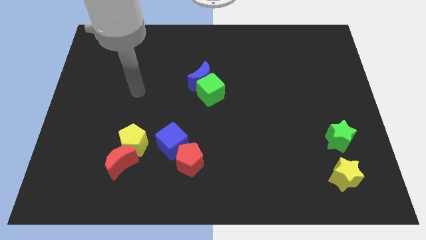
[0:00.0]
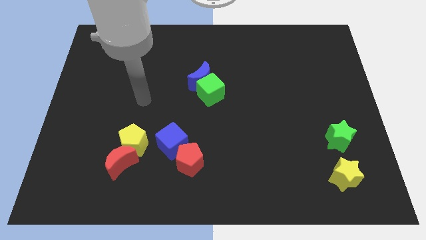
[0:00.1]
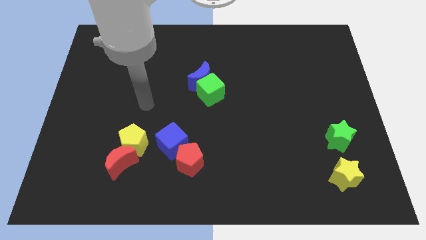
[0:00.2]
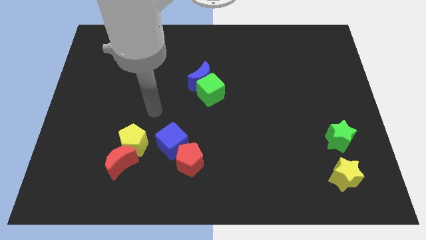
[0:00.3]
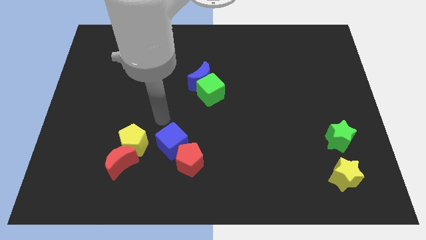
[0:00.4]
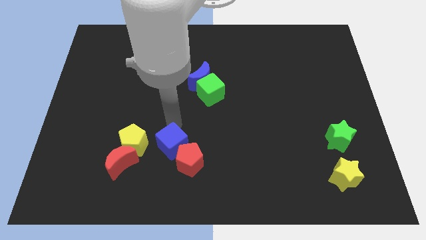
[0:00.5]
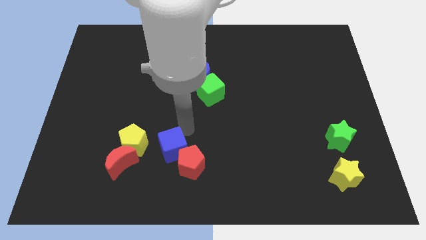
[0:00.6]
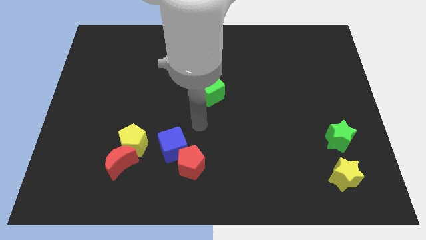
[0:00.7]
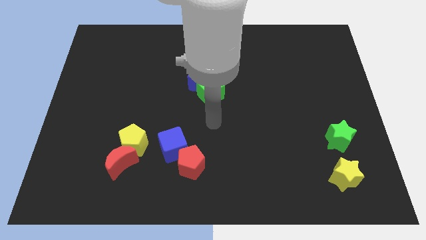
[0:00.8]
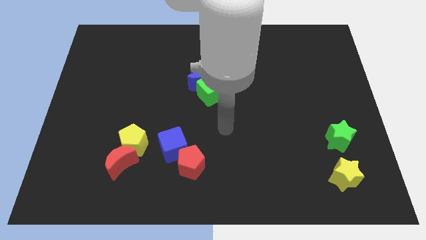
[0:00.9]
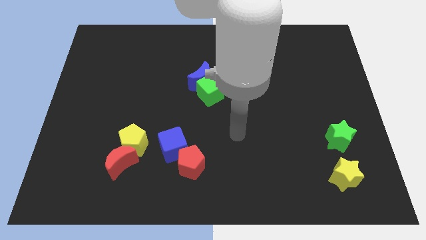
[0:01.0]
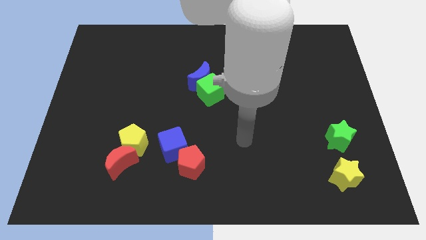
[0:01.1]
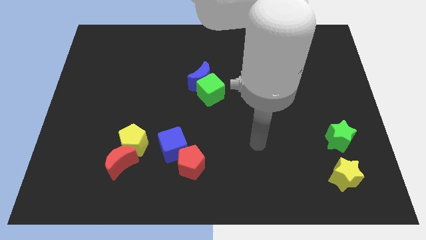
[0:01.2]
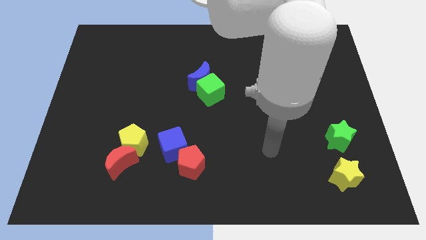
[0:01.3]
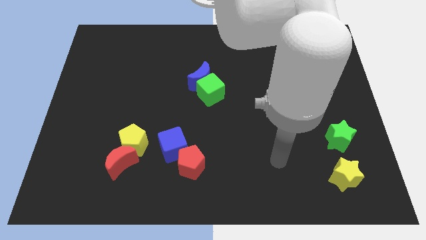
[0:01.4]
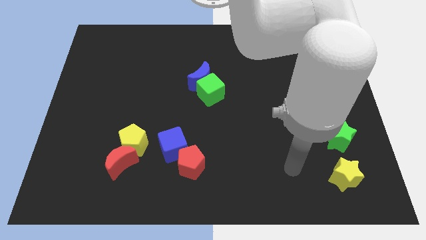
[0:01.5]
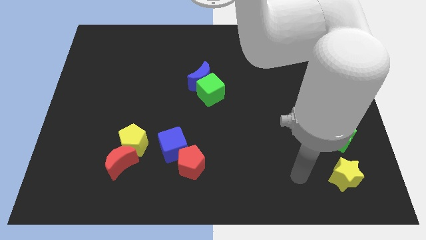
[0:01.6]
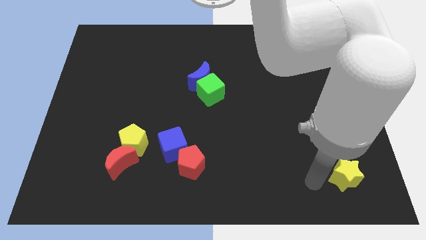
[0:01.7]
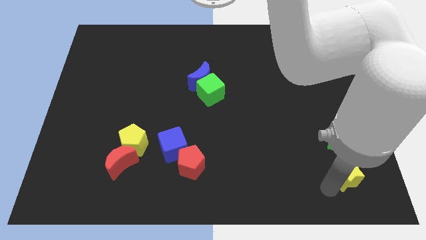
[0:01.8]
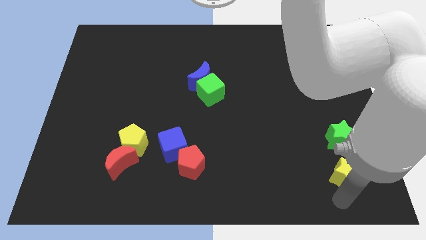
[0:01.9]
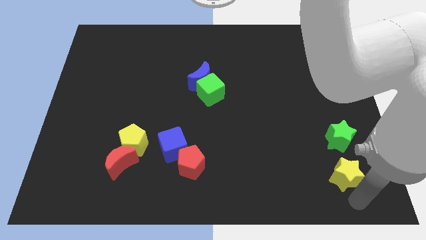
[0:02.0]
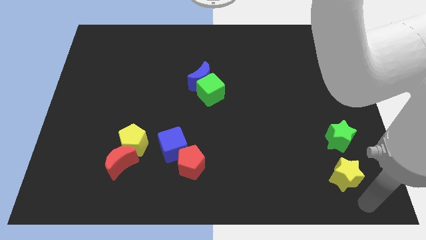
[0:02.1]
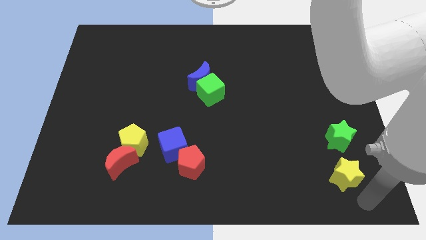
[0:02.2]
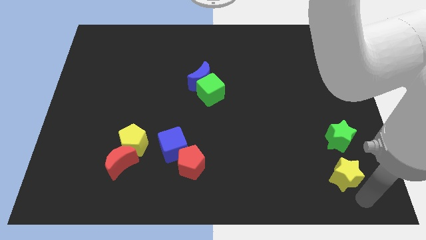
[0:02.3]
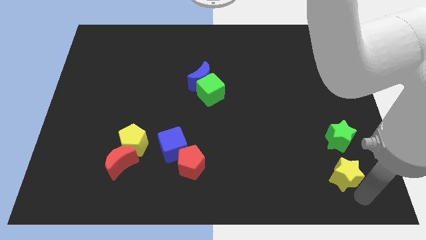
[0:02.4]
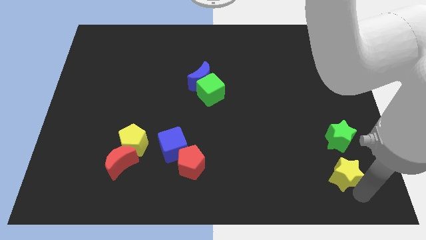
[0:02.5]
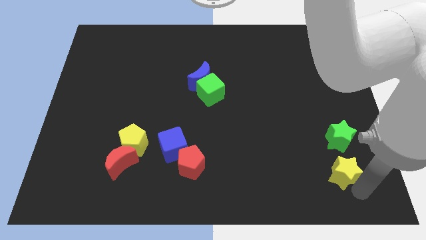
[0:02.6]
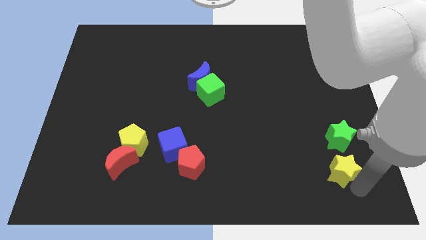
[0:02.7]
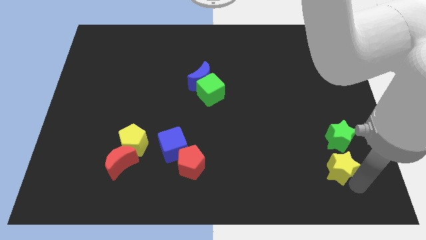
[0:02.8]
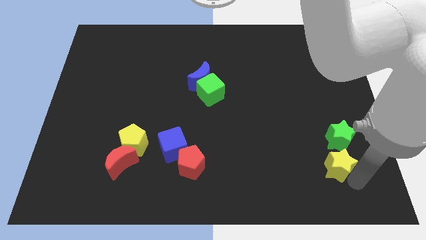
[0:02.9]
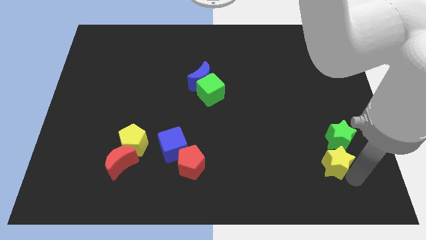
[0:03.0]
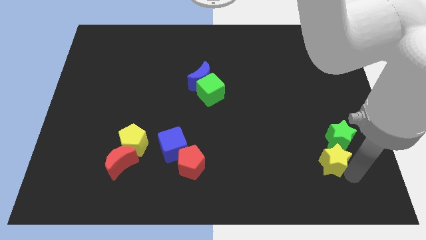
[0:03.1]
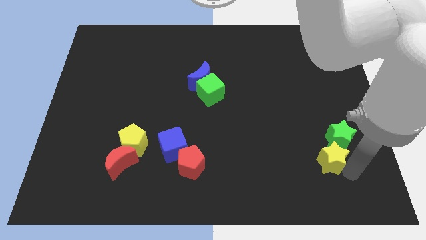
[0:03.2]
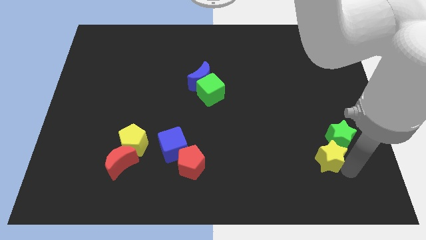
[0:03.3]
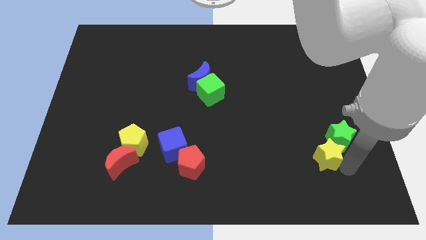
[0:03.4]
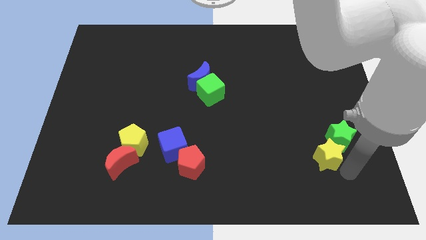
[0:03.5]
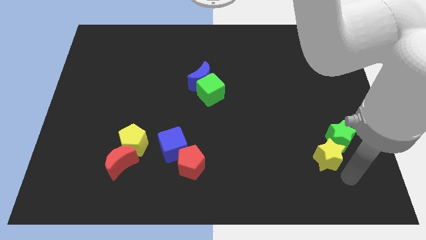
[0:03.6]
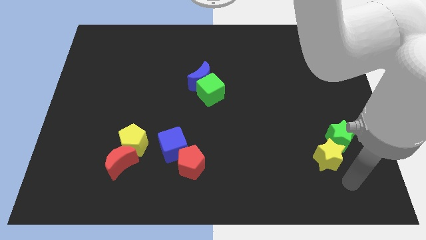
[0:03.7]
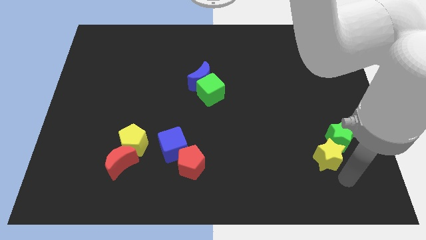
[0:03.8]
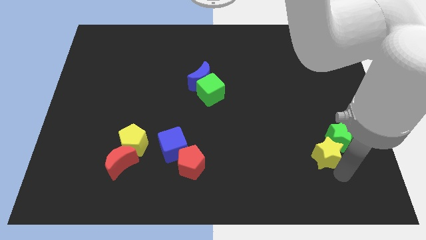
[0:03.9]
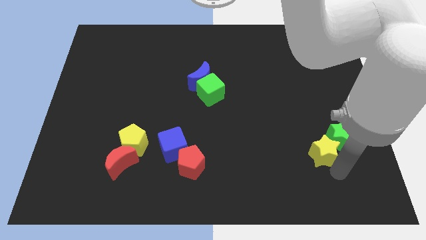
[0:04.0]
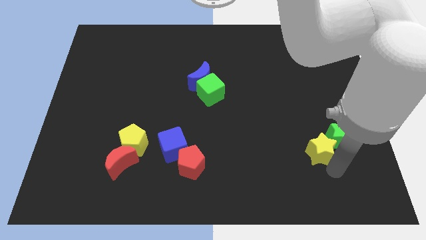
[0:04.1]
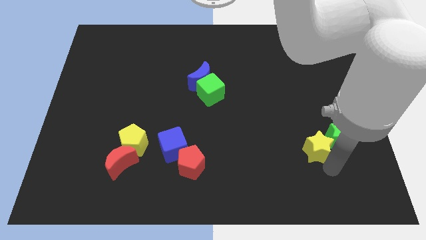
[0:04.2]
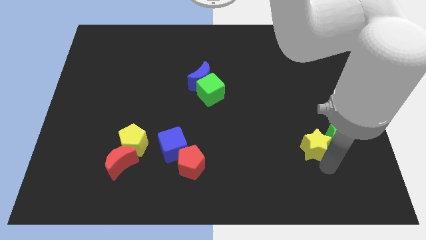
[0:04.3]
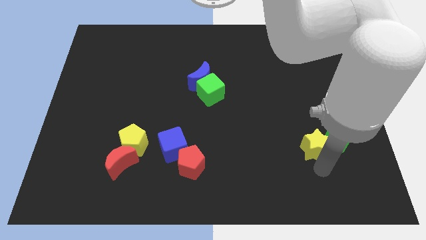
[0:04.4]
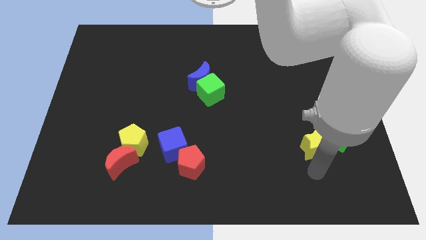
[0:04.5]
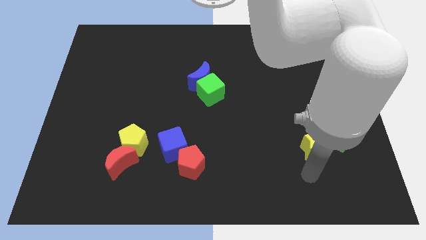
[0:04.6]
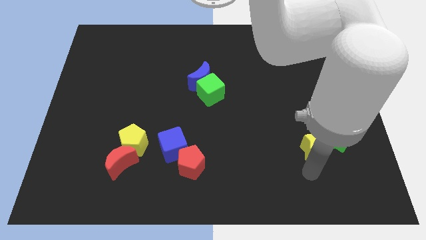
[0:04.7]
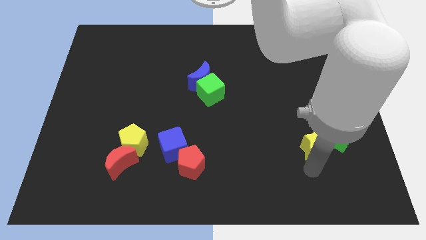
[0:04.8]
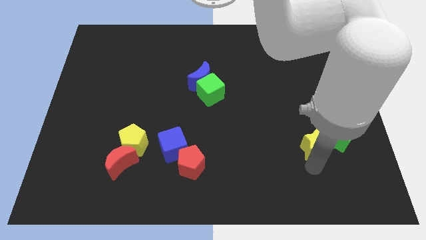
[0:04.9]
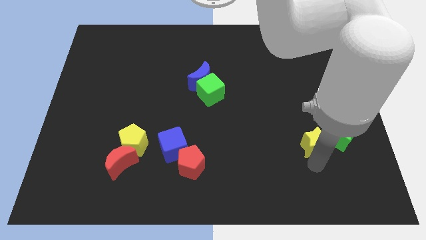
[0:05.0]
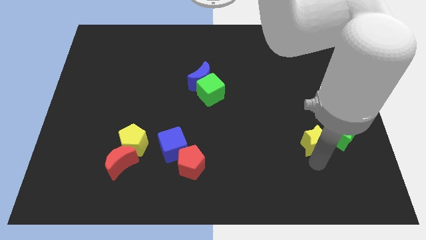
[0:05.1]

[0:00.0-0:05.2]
slightly move the yellow star up

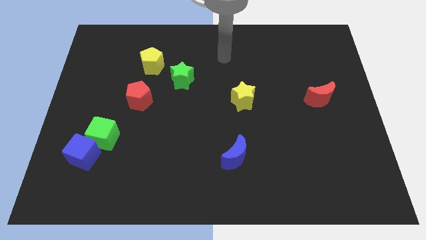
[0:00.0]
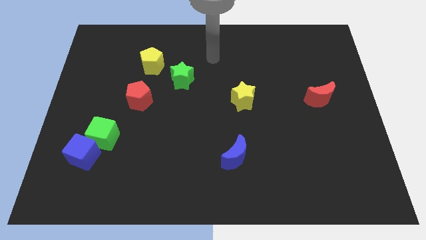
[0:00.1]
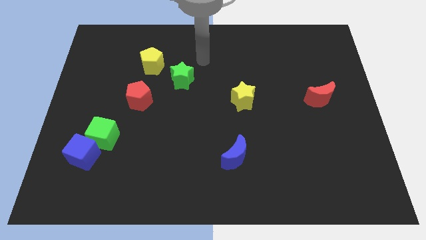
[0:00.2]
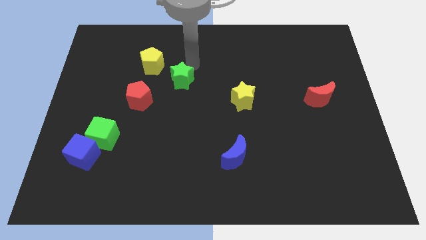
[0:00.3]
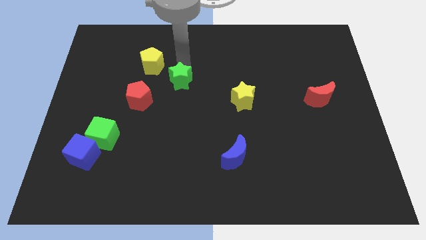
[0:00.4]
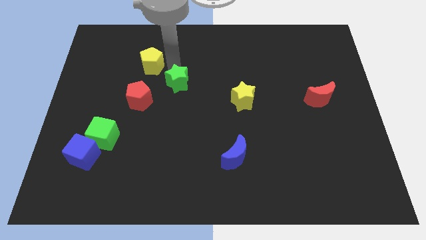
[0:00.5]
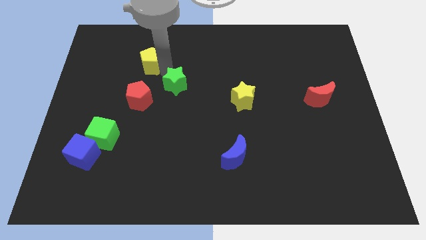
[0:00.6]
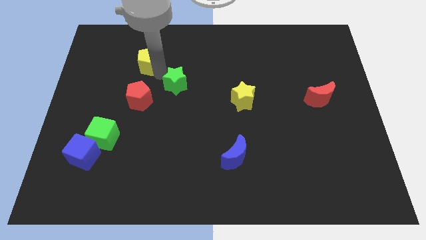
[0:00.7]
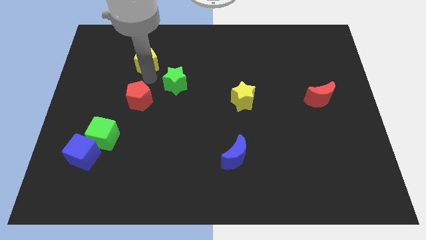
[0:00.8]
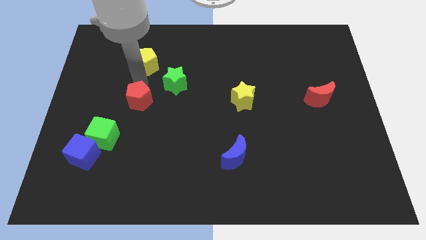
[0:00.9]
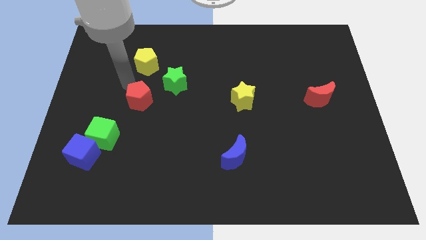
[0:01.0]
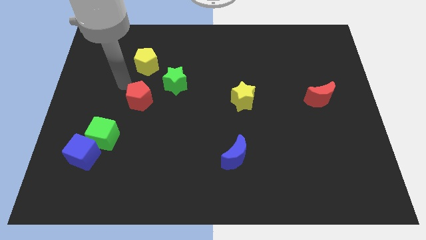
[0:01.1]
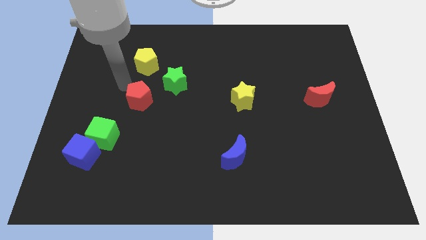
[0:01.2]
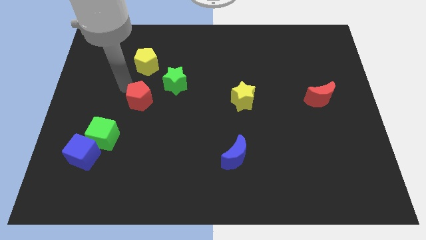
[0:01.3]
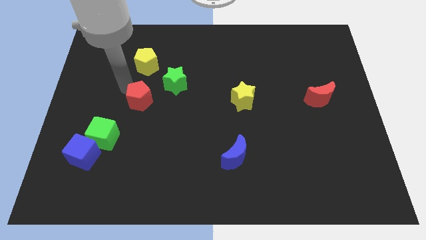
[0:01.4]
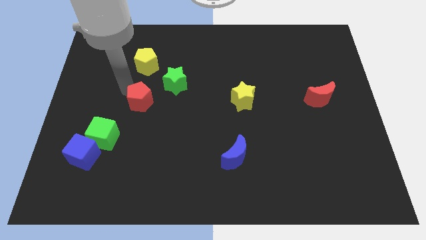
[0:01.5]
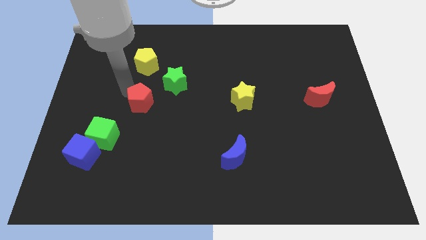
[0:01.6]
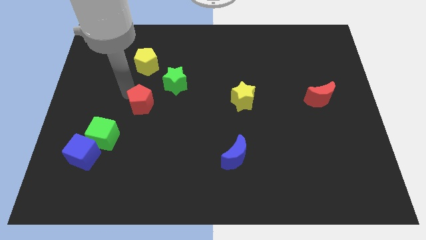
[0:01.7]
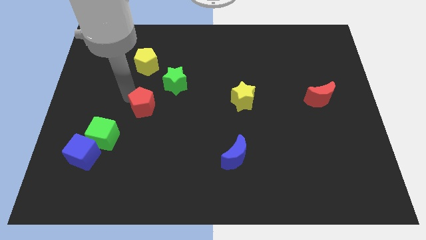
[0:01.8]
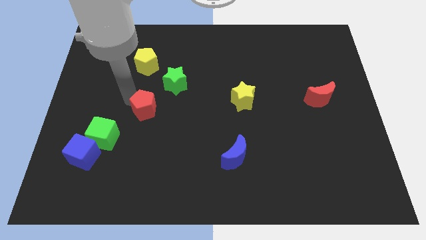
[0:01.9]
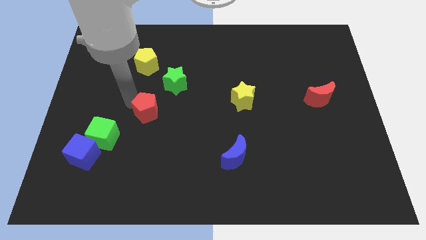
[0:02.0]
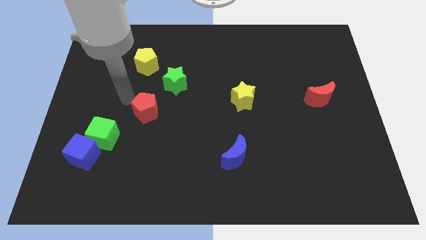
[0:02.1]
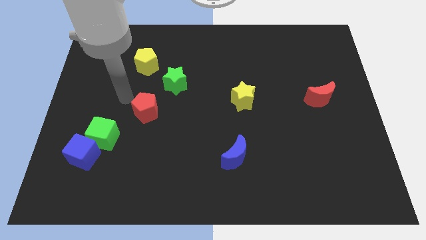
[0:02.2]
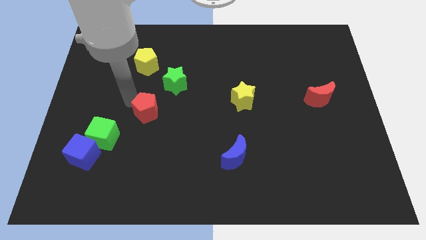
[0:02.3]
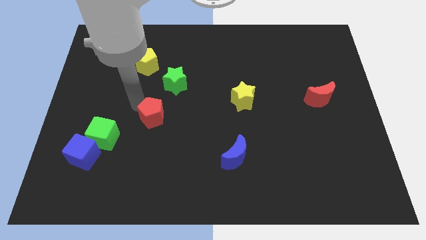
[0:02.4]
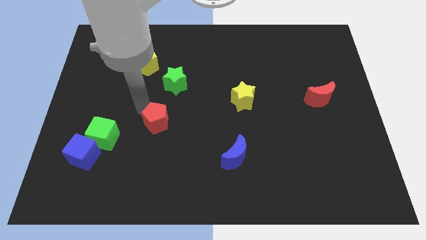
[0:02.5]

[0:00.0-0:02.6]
move the red pentagon a bit downwards and then right

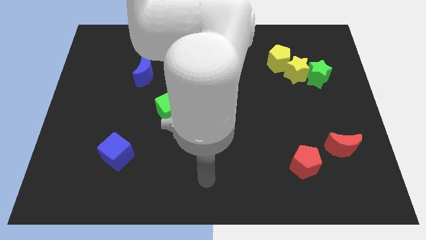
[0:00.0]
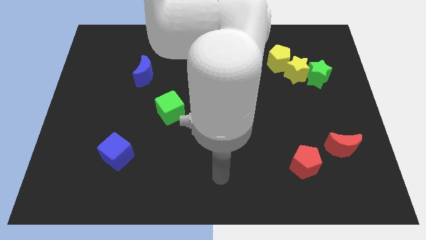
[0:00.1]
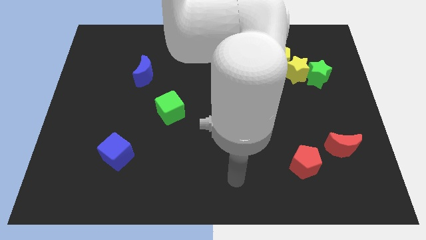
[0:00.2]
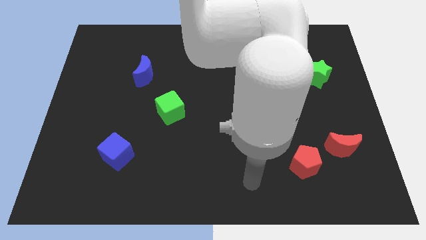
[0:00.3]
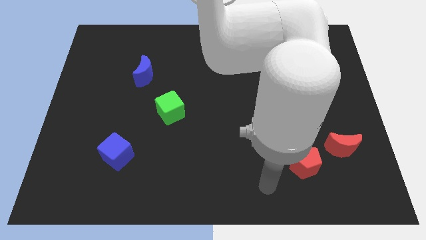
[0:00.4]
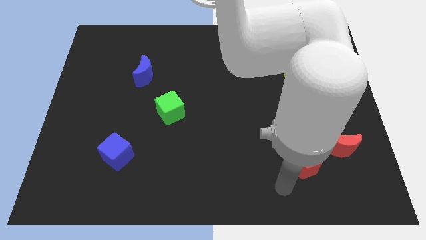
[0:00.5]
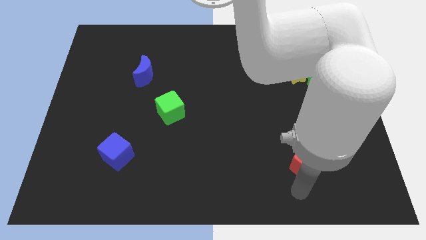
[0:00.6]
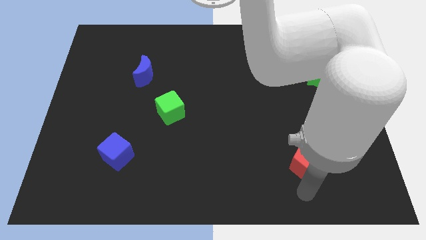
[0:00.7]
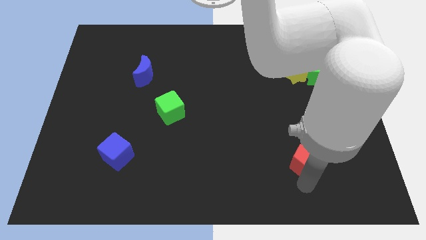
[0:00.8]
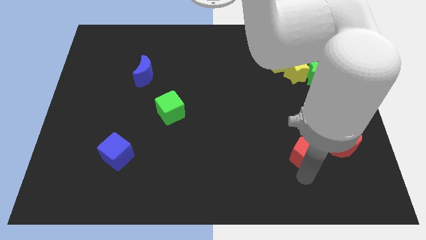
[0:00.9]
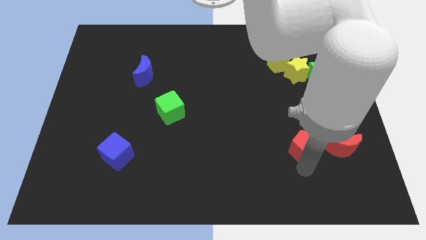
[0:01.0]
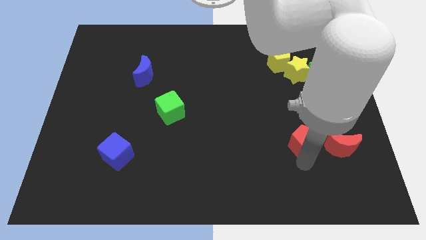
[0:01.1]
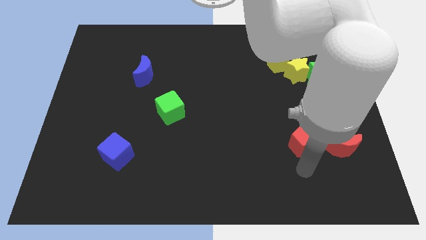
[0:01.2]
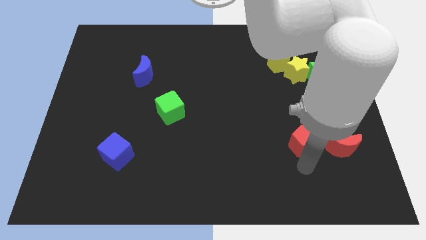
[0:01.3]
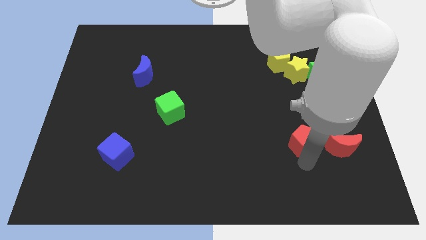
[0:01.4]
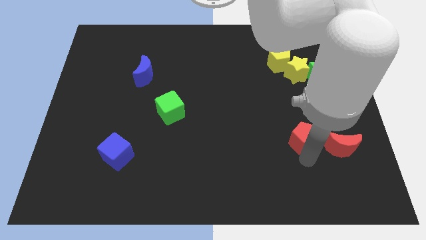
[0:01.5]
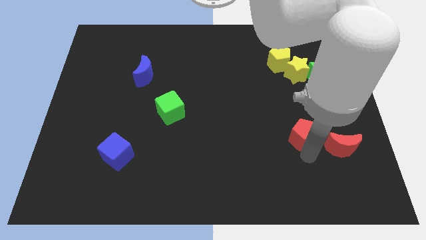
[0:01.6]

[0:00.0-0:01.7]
slide the red pentagon up slightly
